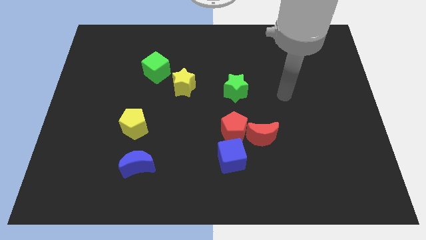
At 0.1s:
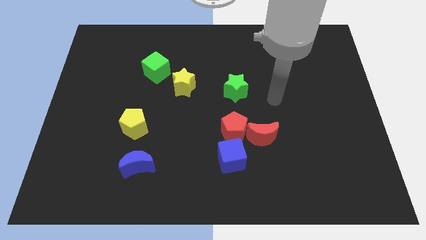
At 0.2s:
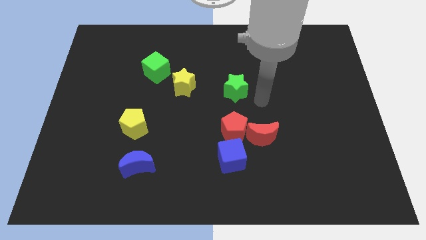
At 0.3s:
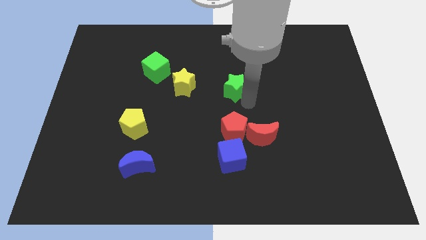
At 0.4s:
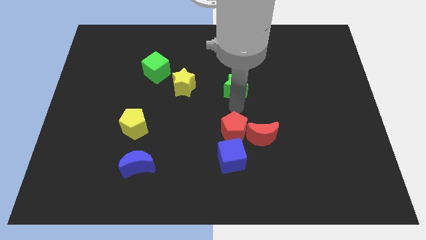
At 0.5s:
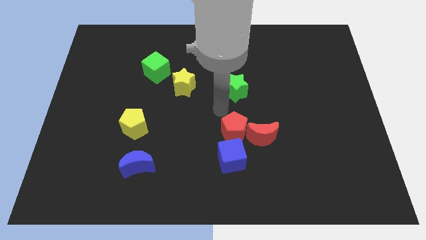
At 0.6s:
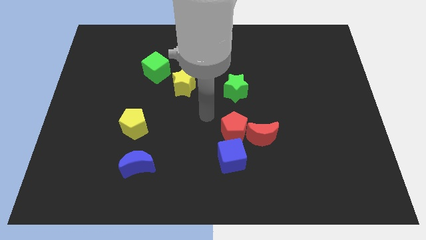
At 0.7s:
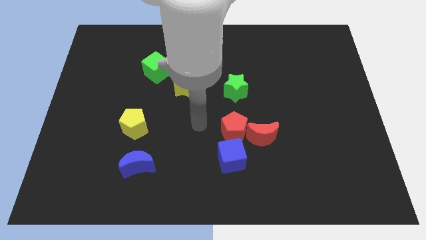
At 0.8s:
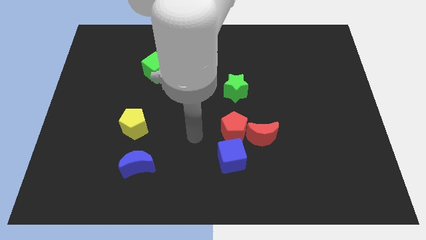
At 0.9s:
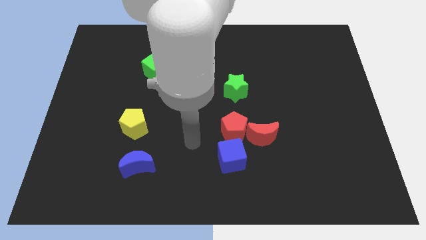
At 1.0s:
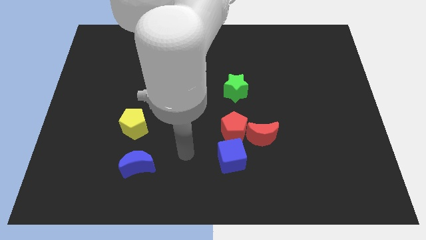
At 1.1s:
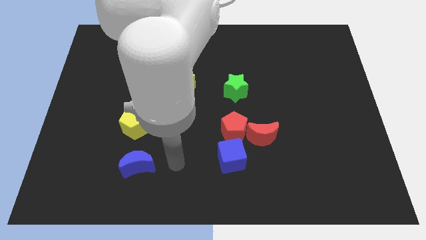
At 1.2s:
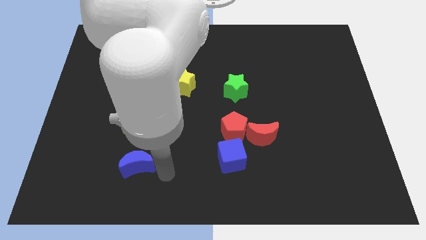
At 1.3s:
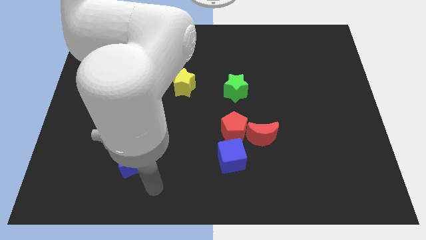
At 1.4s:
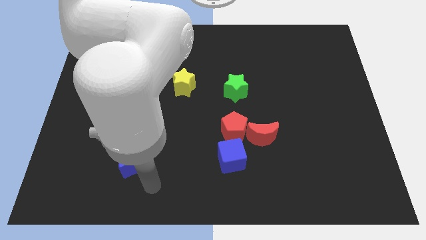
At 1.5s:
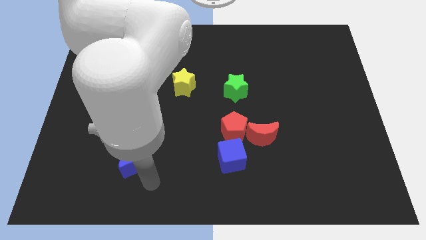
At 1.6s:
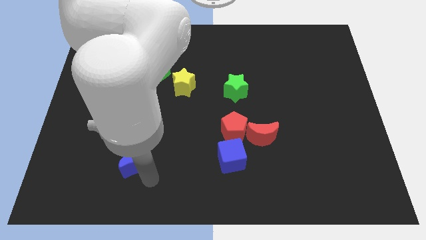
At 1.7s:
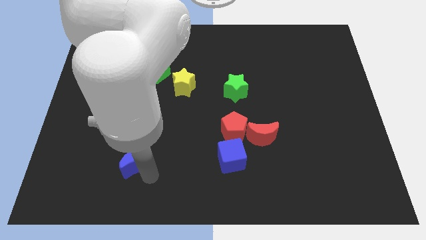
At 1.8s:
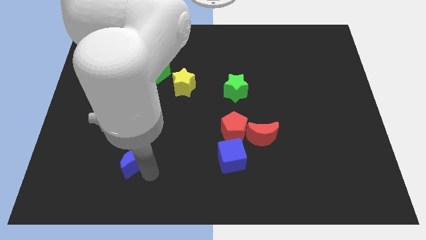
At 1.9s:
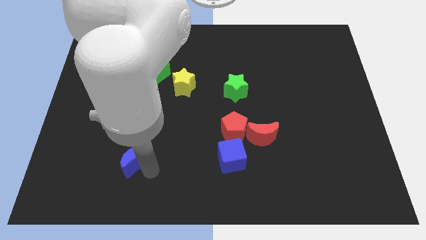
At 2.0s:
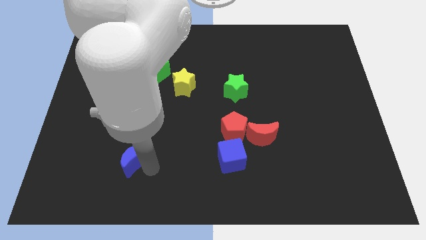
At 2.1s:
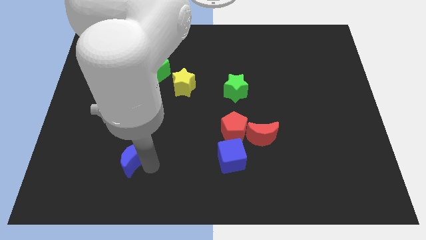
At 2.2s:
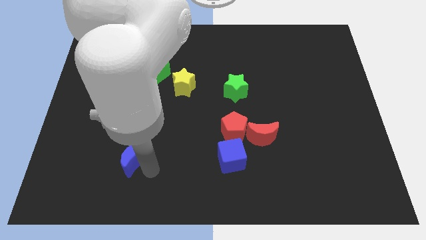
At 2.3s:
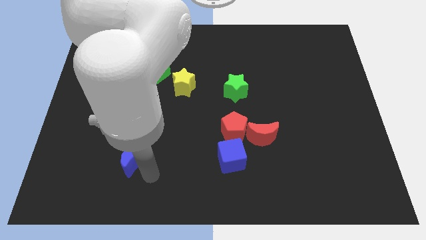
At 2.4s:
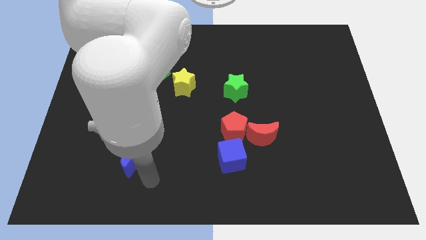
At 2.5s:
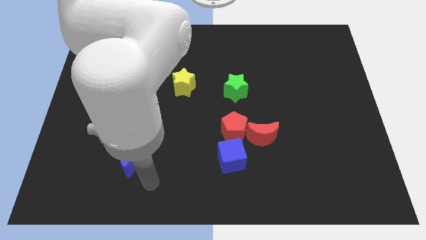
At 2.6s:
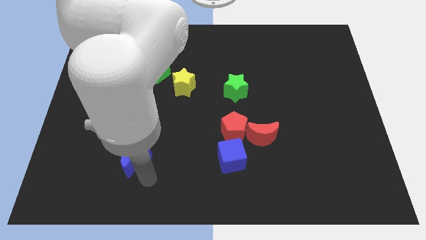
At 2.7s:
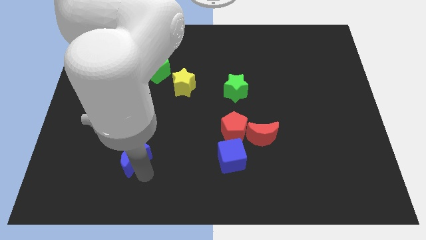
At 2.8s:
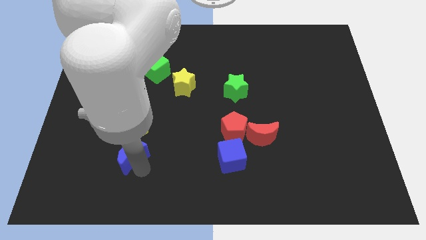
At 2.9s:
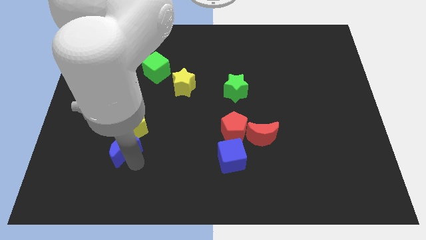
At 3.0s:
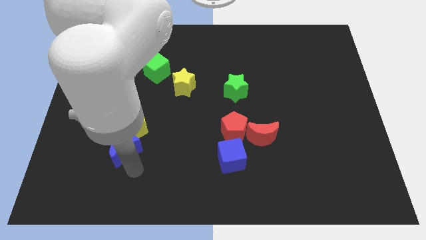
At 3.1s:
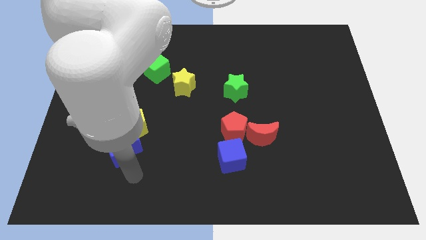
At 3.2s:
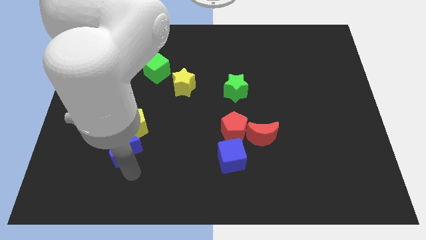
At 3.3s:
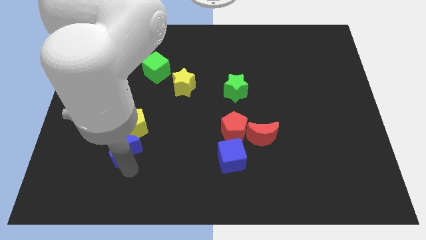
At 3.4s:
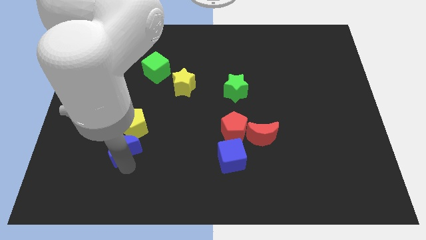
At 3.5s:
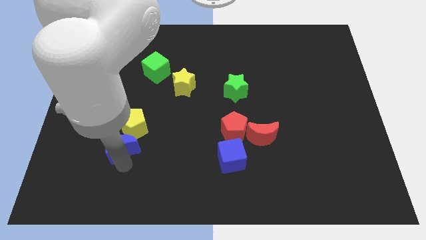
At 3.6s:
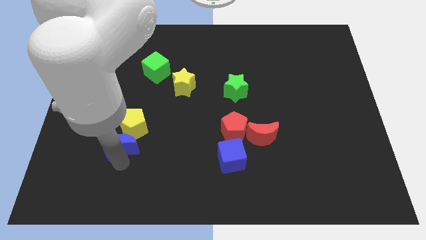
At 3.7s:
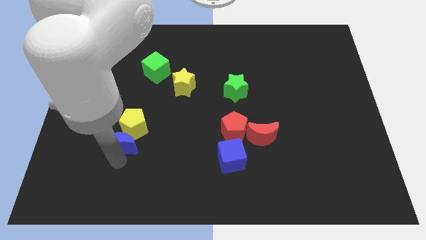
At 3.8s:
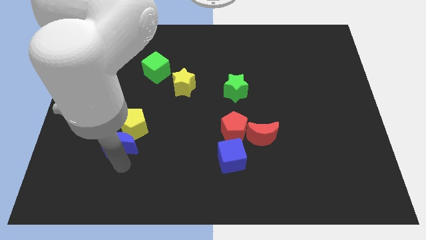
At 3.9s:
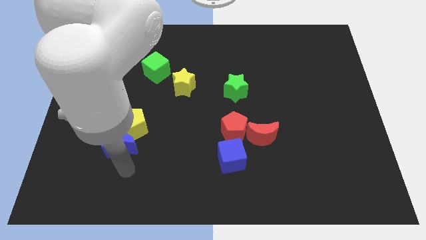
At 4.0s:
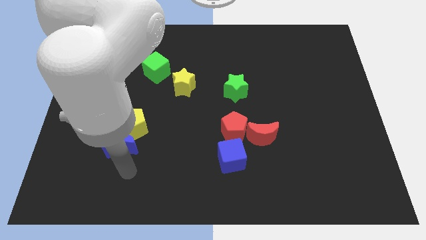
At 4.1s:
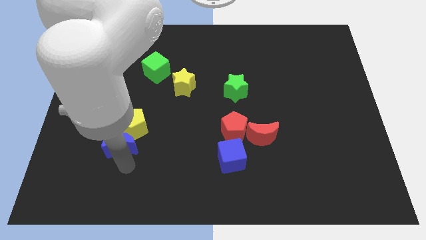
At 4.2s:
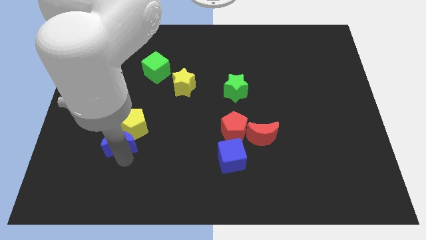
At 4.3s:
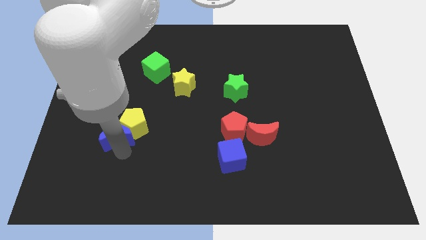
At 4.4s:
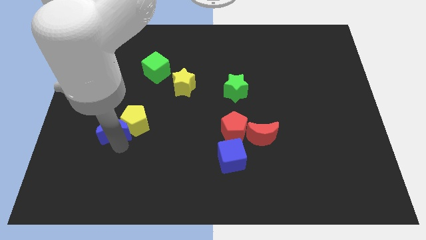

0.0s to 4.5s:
slightly push the blue moon up

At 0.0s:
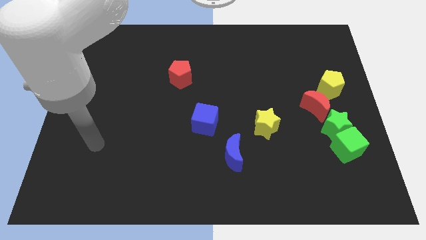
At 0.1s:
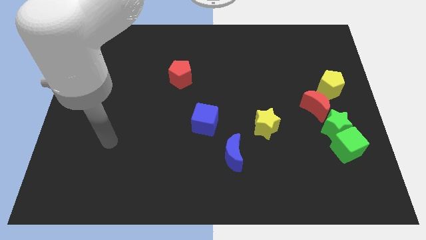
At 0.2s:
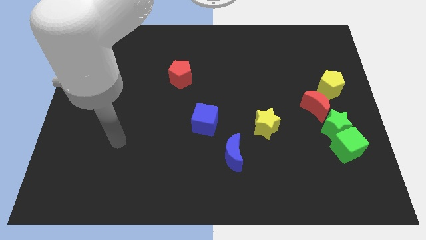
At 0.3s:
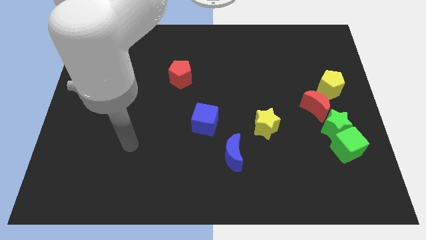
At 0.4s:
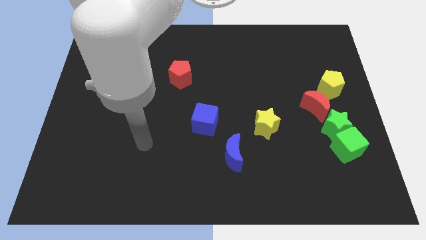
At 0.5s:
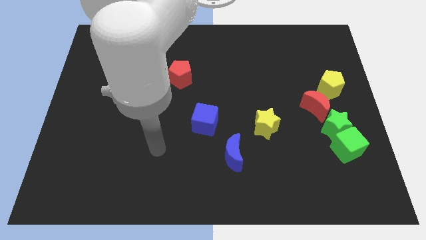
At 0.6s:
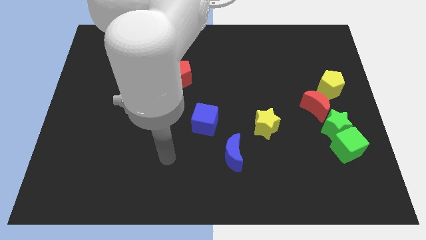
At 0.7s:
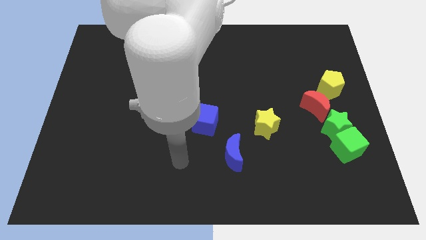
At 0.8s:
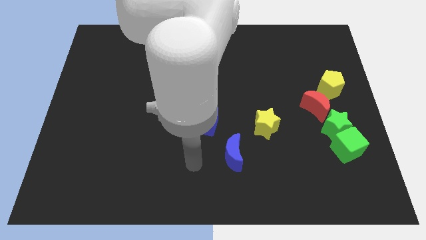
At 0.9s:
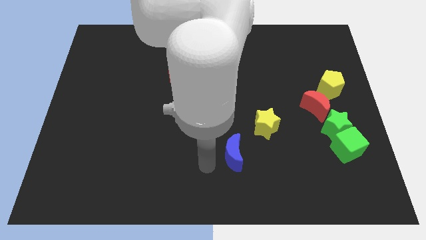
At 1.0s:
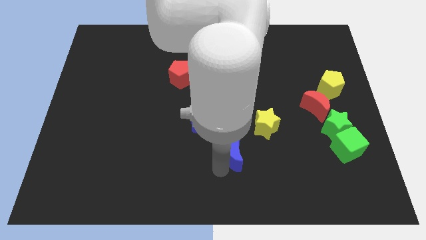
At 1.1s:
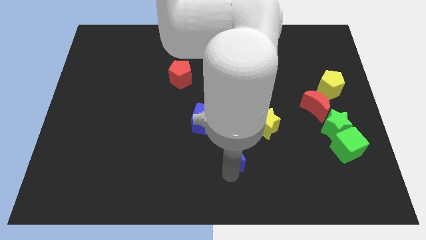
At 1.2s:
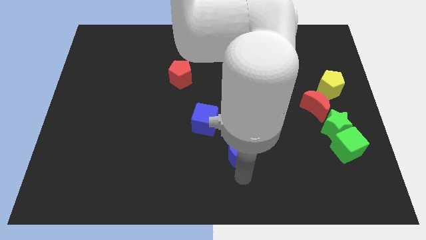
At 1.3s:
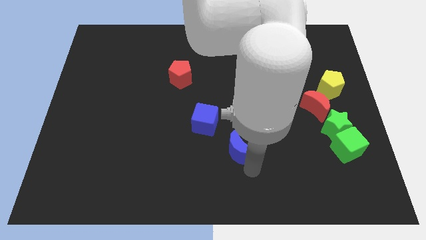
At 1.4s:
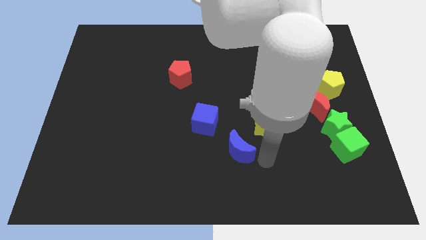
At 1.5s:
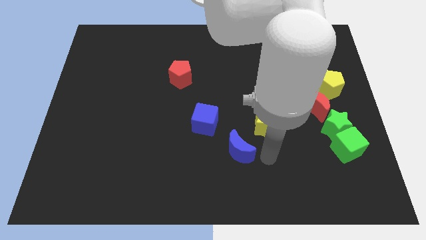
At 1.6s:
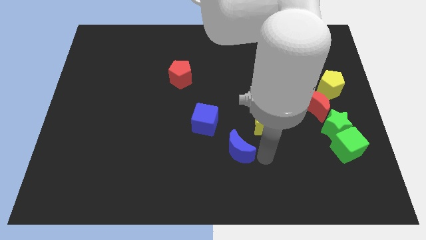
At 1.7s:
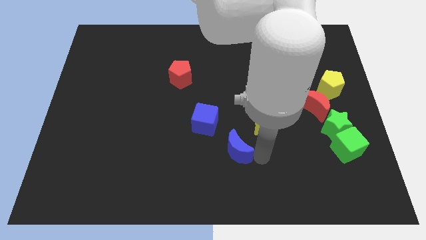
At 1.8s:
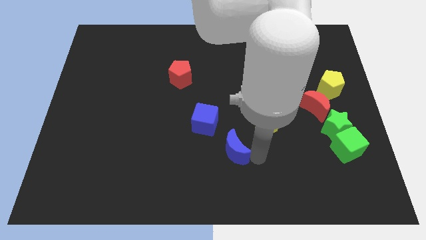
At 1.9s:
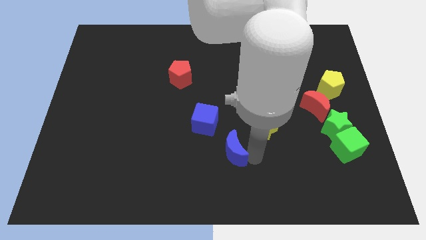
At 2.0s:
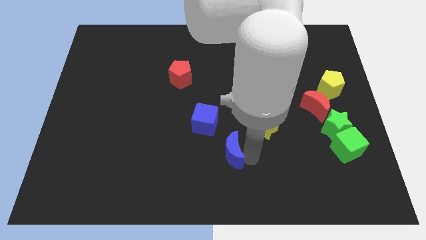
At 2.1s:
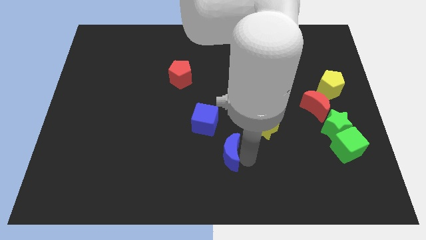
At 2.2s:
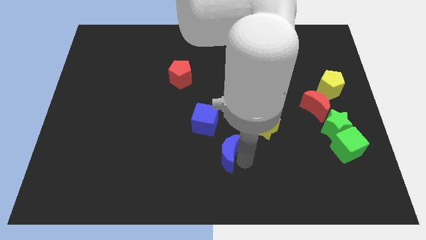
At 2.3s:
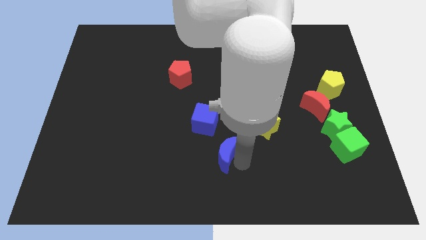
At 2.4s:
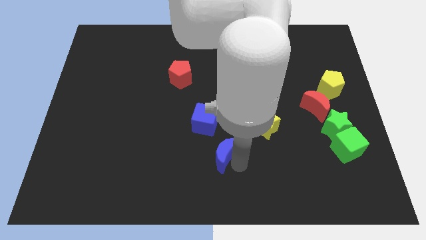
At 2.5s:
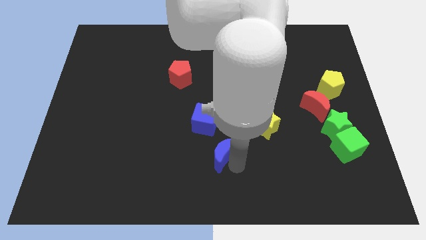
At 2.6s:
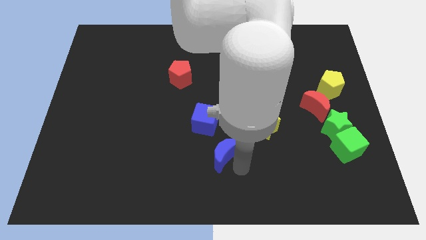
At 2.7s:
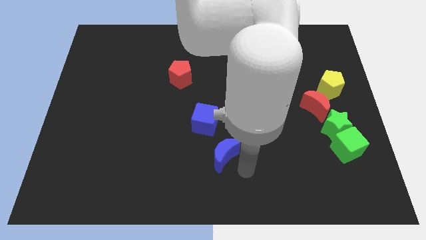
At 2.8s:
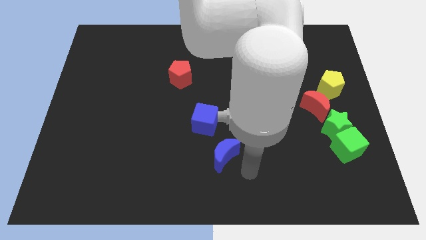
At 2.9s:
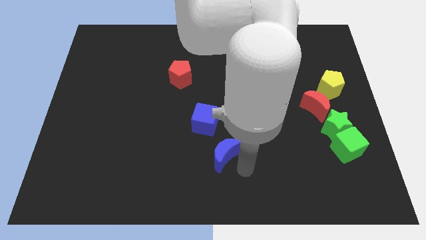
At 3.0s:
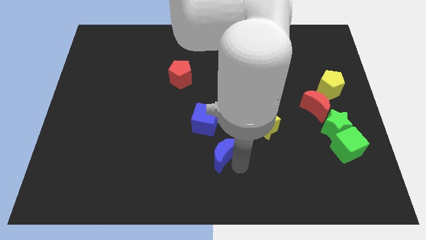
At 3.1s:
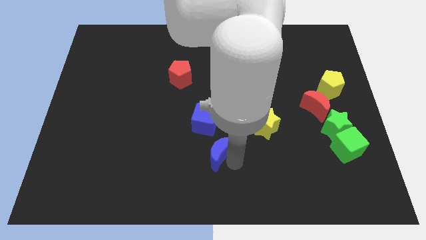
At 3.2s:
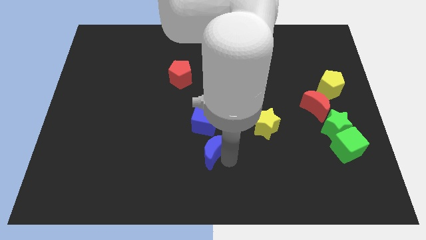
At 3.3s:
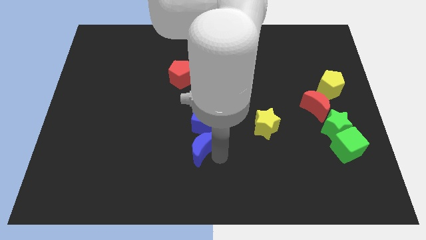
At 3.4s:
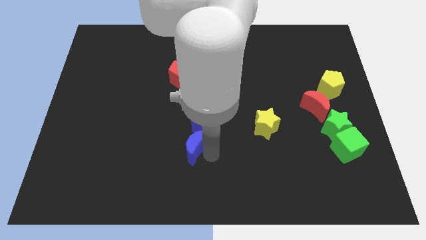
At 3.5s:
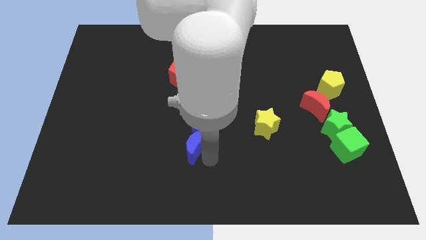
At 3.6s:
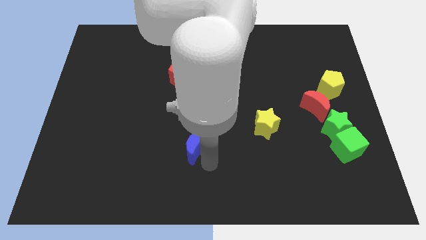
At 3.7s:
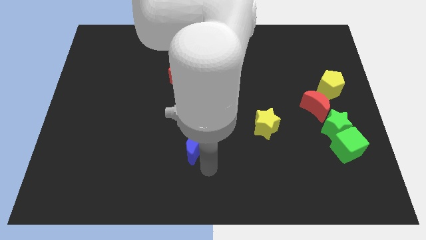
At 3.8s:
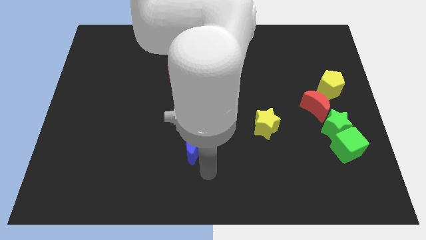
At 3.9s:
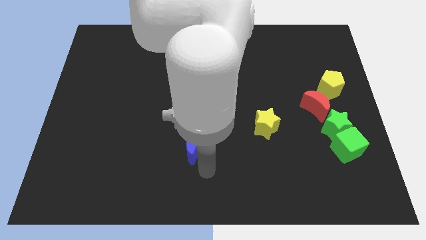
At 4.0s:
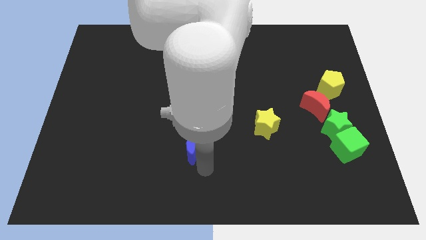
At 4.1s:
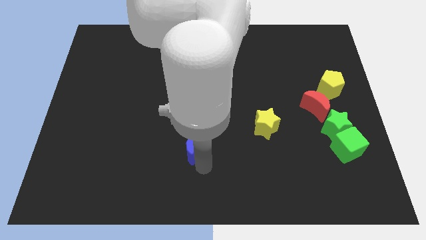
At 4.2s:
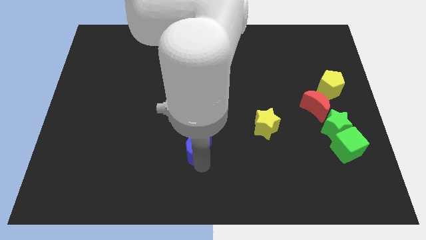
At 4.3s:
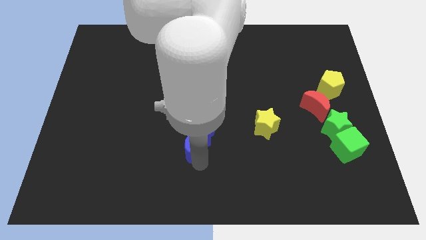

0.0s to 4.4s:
move the blue moon up and left diagonally somewhat
